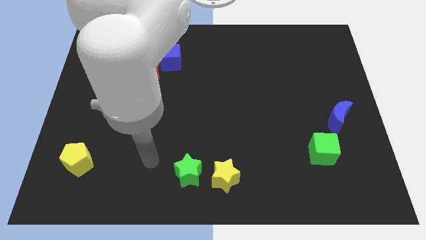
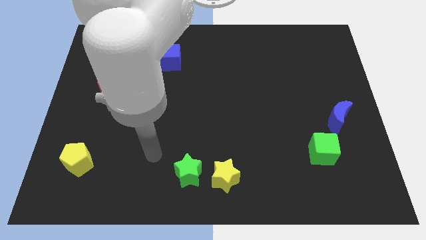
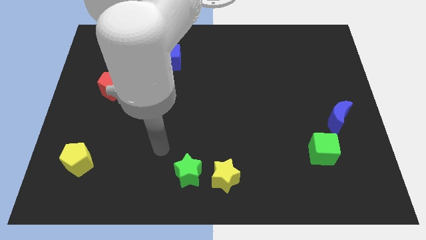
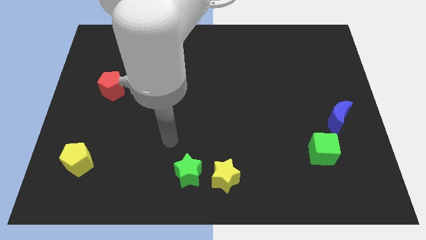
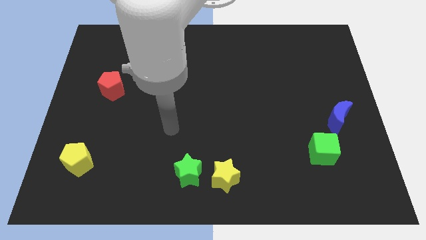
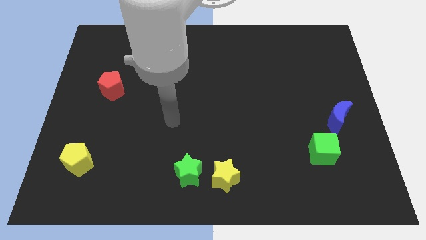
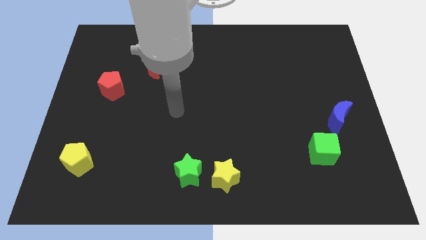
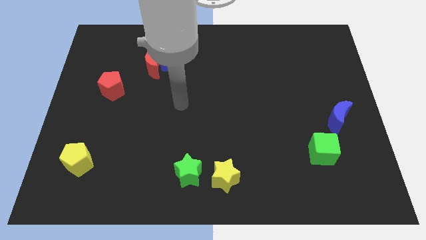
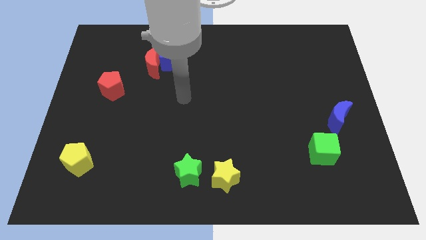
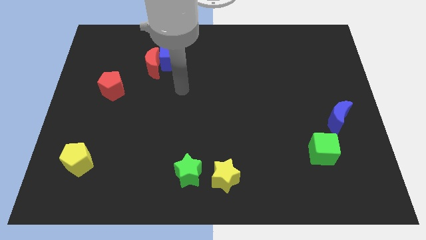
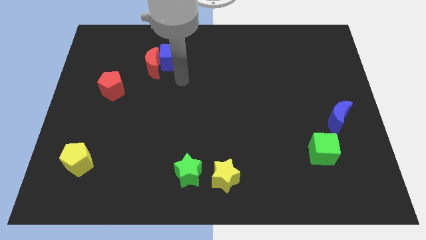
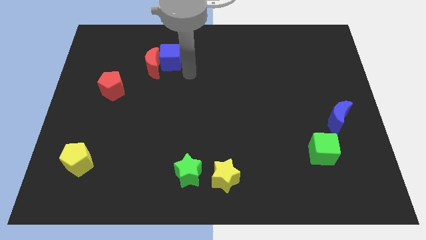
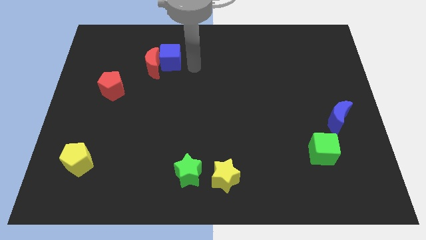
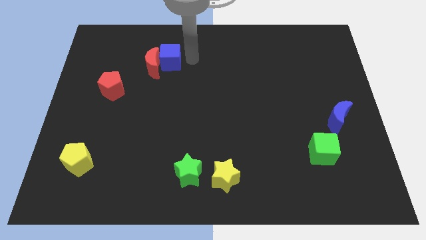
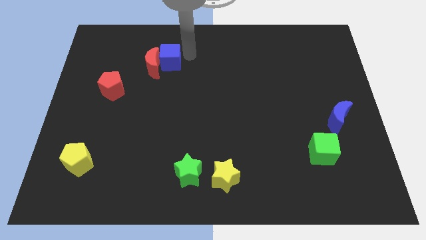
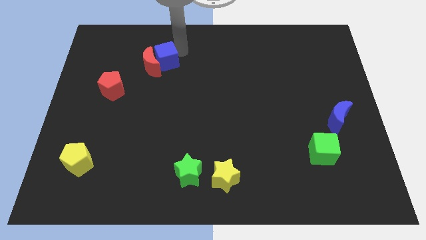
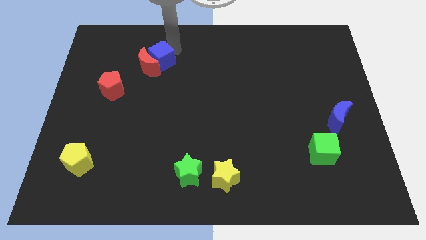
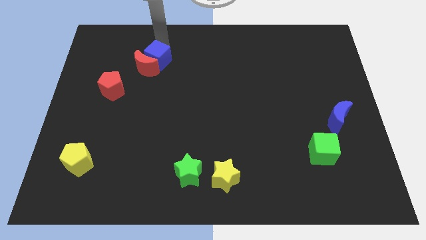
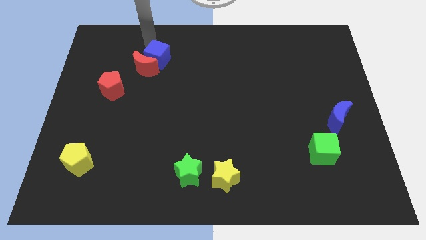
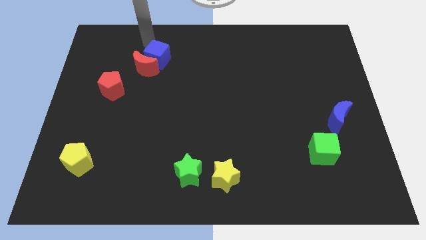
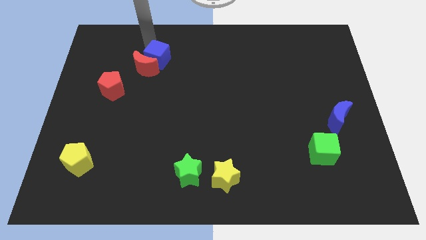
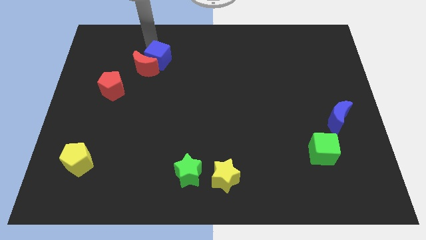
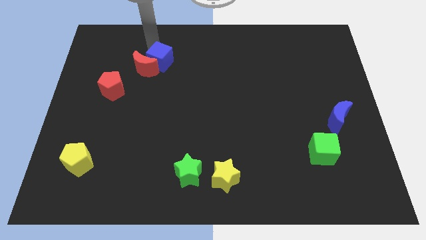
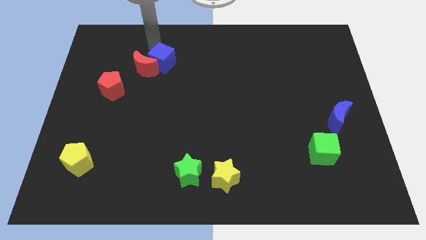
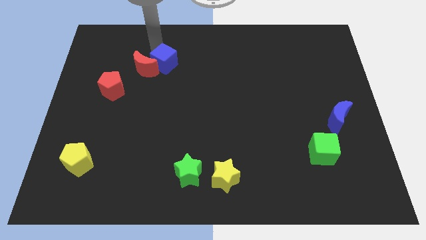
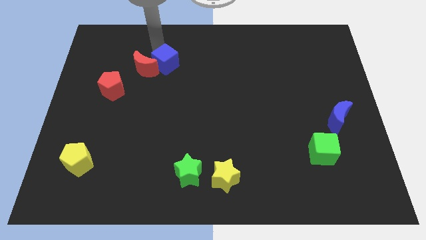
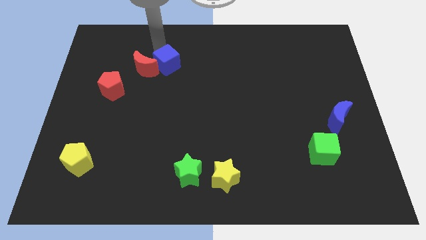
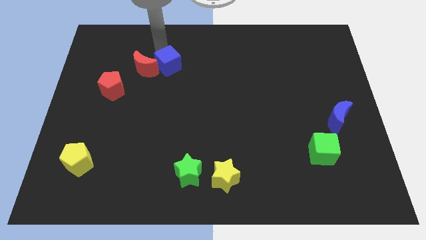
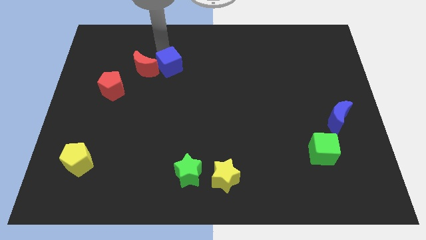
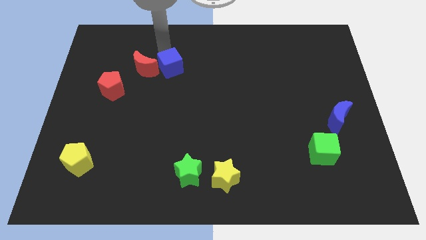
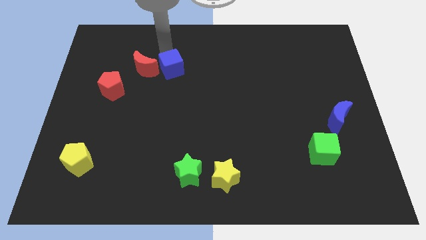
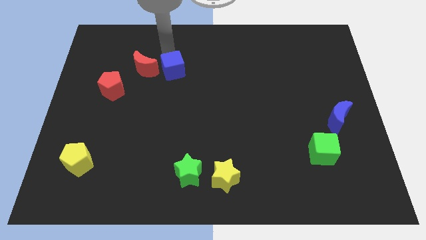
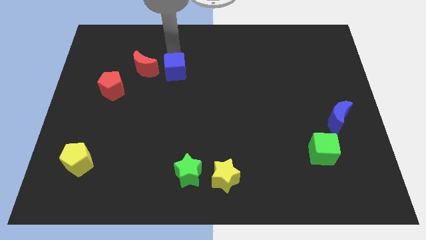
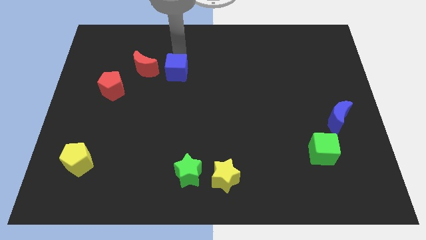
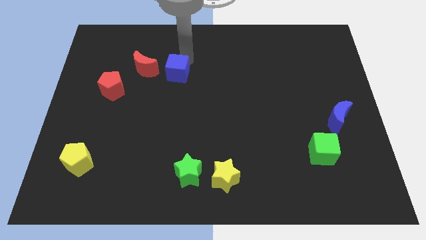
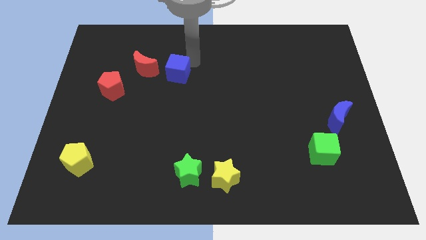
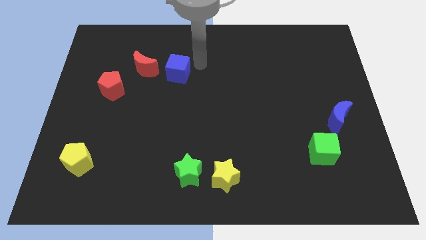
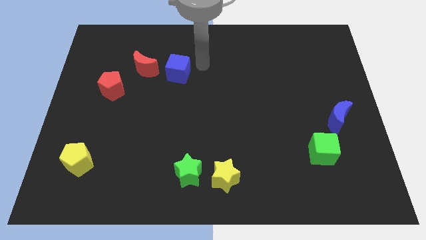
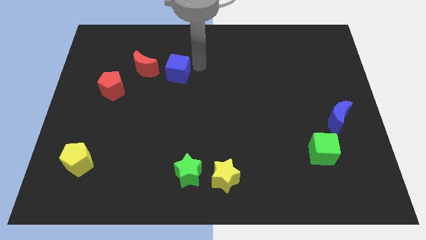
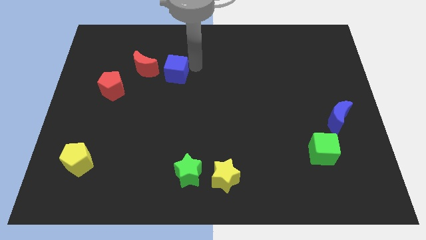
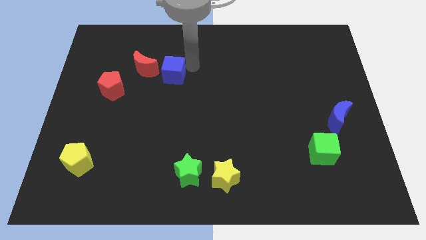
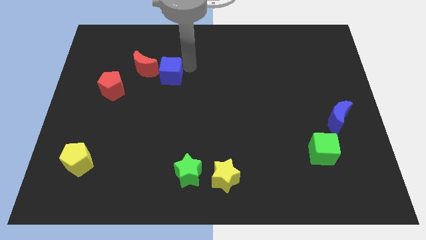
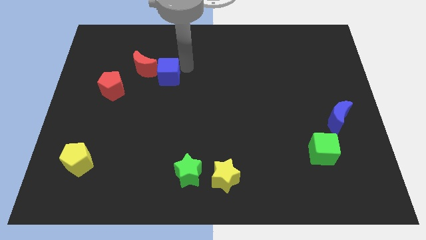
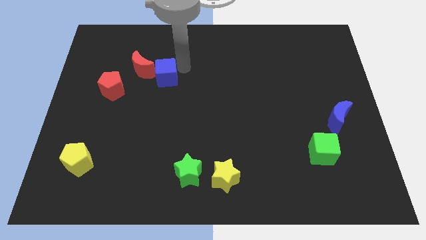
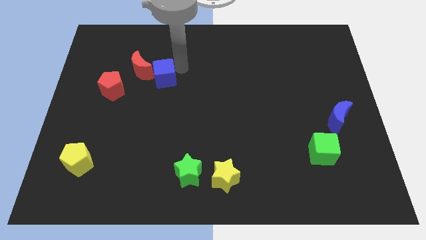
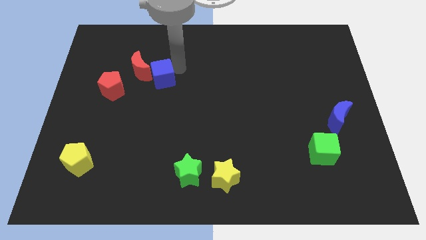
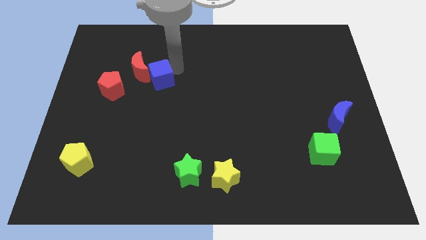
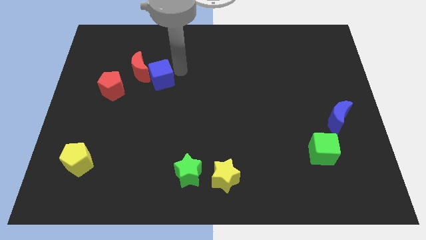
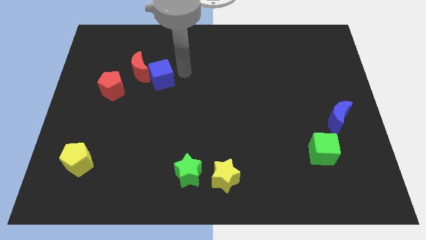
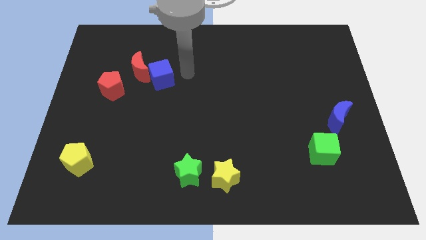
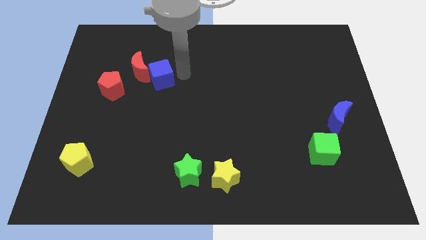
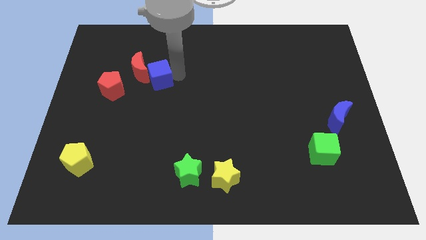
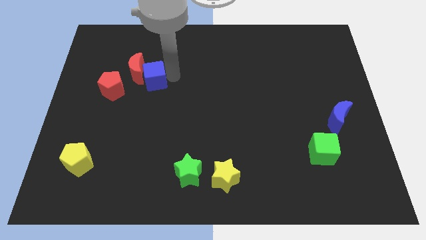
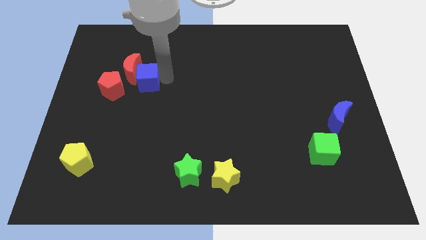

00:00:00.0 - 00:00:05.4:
put the blue cube diagonally up and to the right of the red pentagon

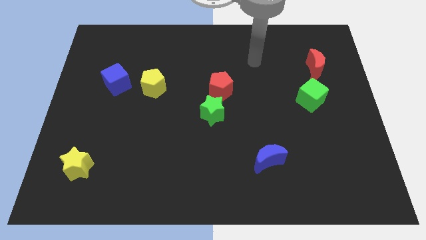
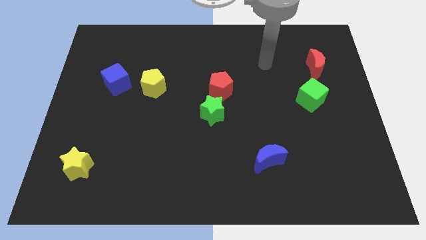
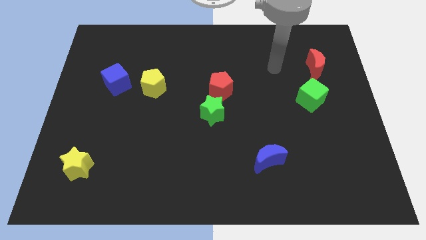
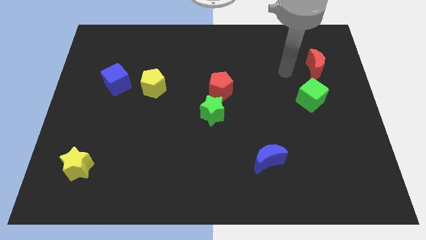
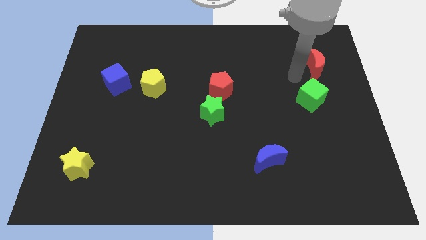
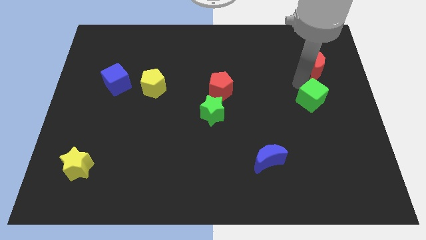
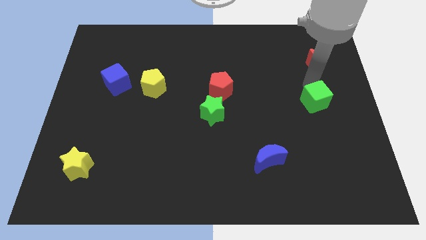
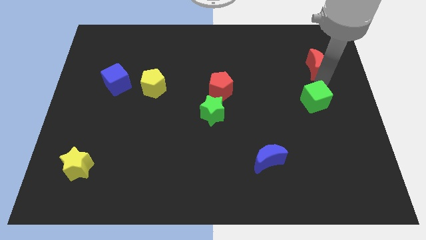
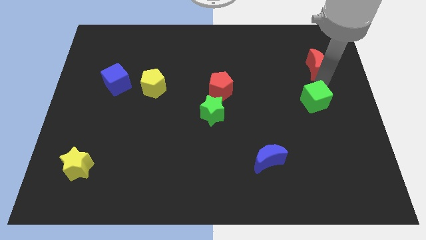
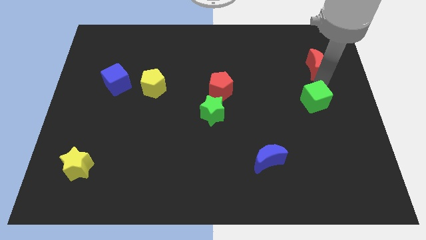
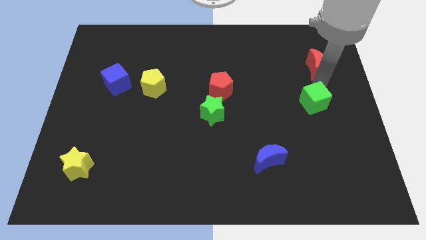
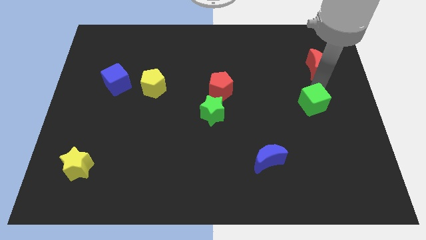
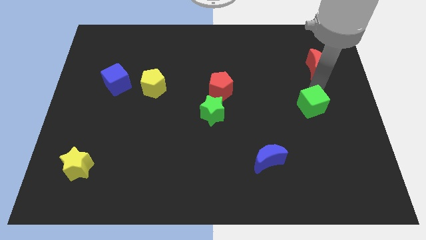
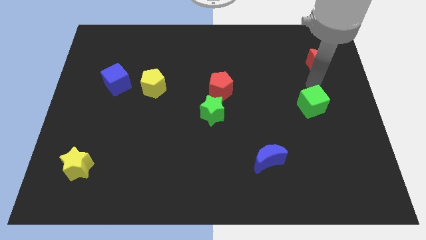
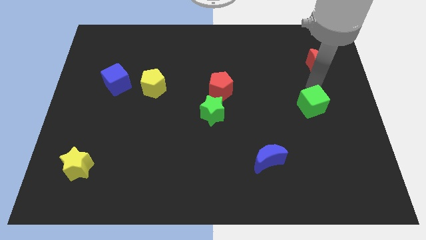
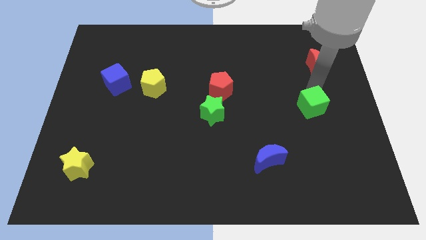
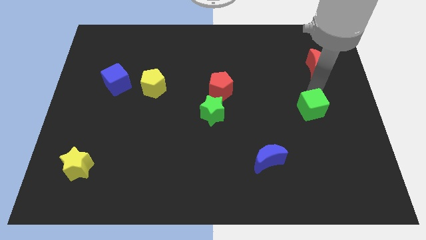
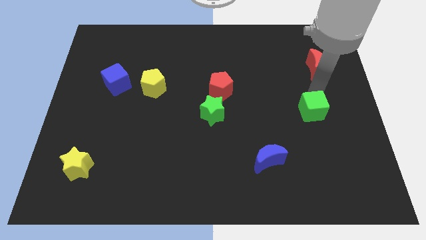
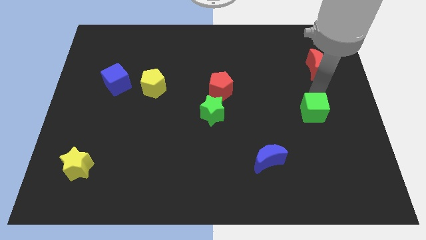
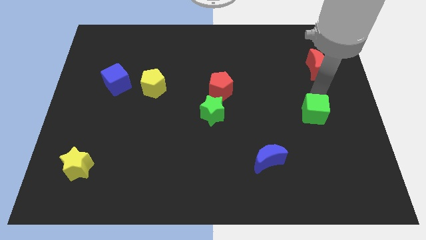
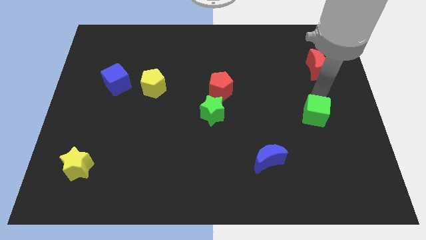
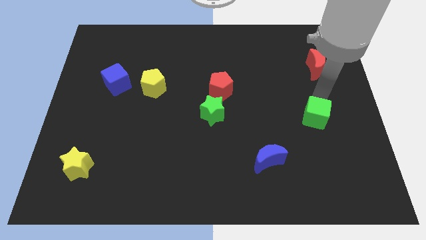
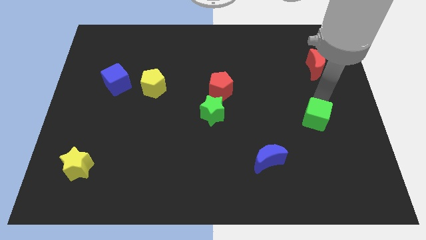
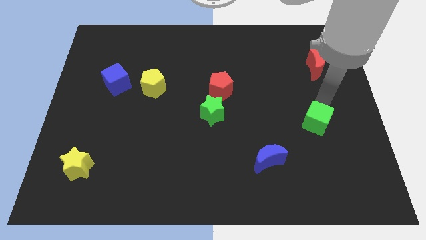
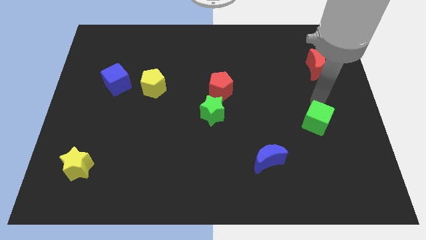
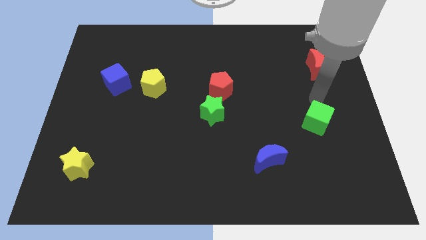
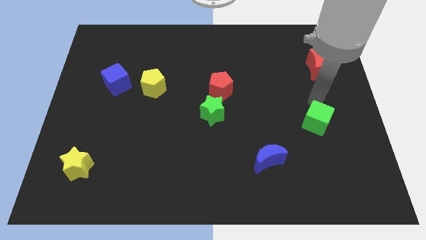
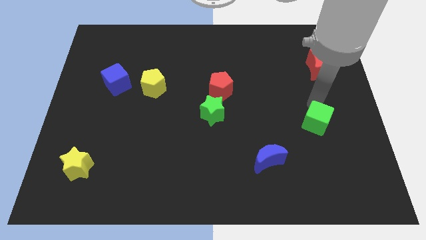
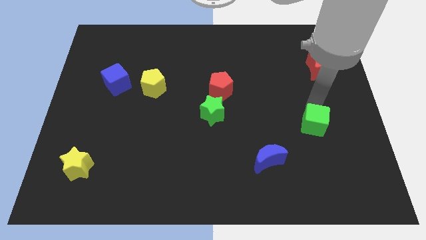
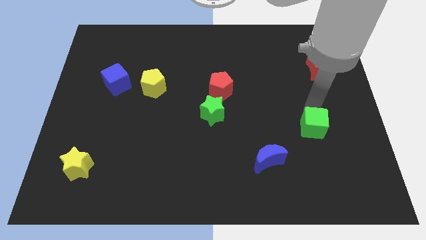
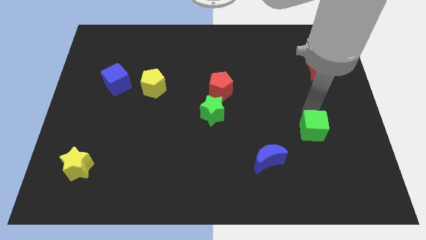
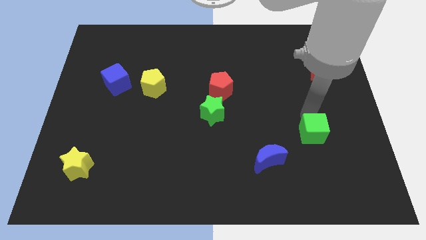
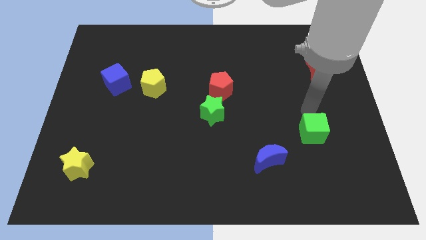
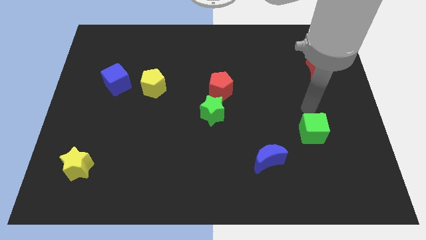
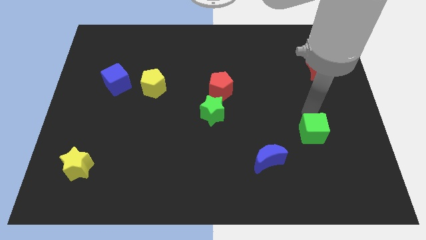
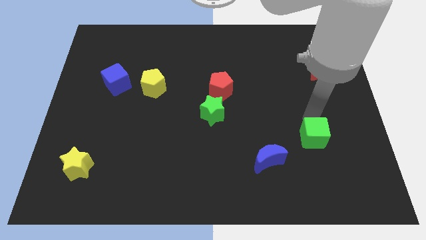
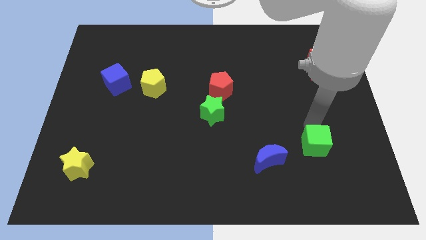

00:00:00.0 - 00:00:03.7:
move the green cube to the right of the blue moon
